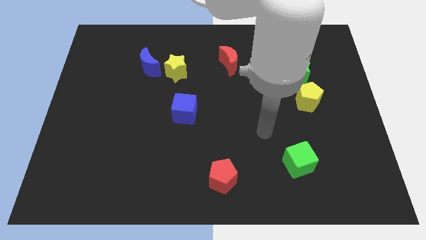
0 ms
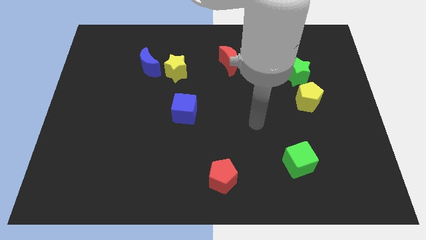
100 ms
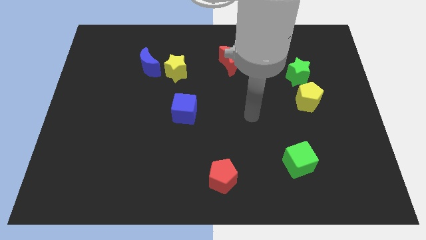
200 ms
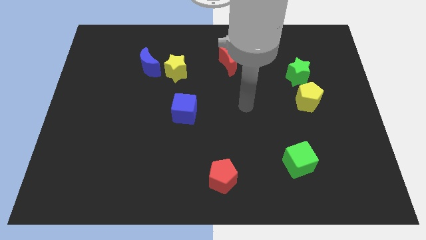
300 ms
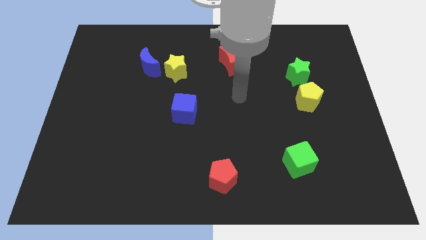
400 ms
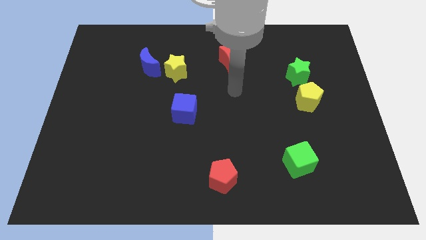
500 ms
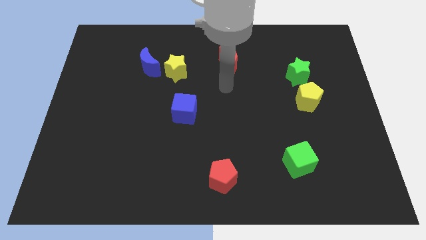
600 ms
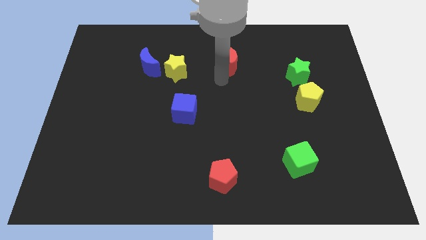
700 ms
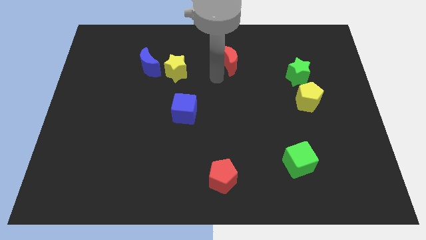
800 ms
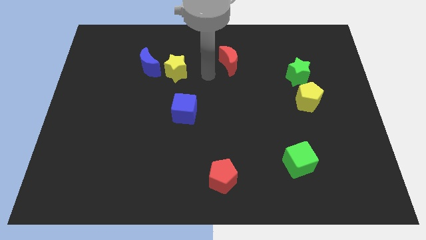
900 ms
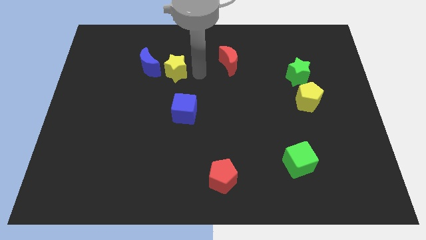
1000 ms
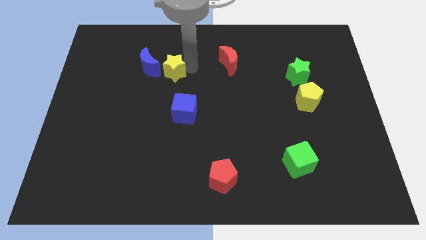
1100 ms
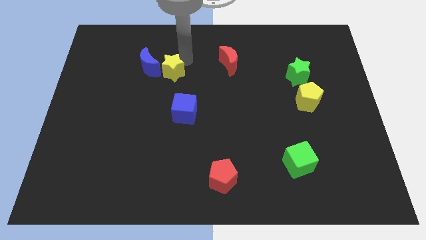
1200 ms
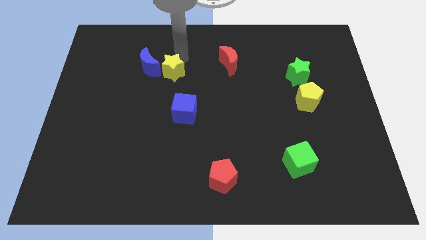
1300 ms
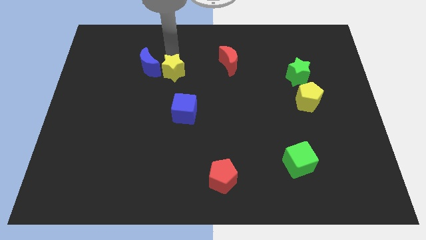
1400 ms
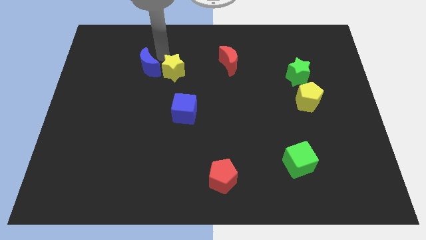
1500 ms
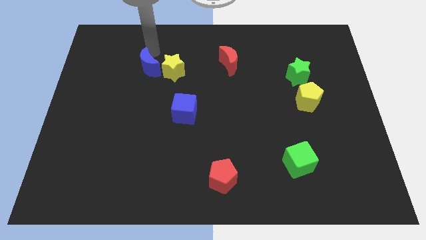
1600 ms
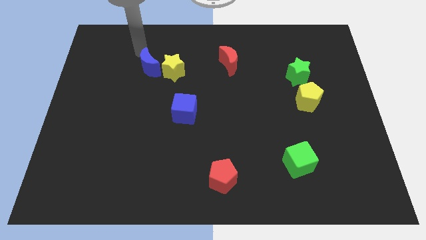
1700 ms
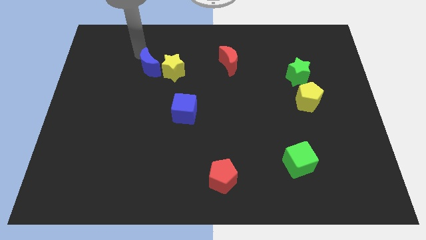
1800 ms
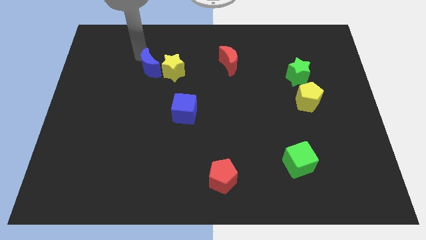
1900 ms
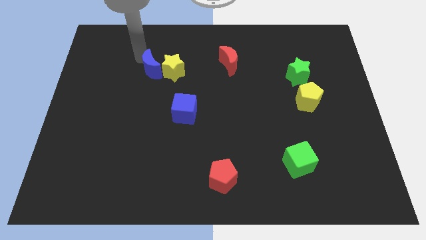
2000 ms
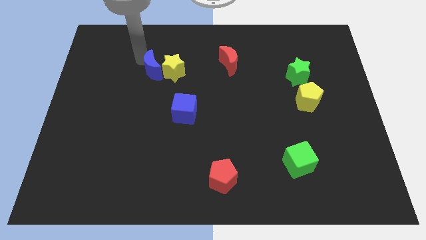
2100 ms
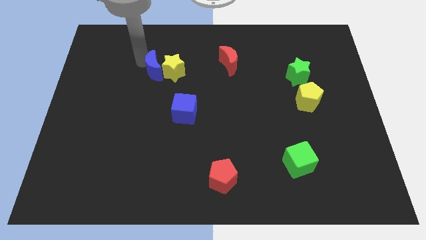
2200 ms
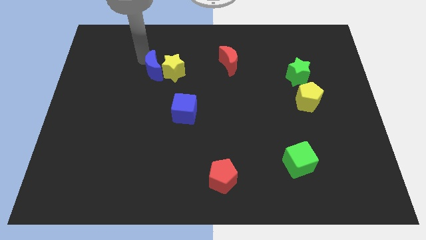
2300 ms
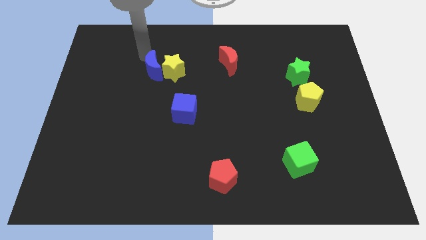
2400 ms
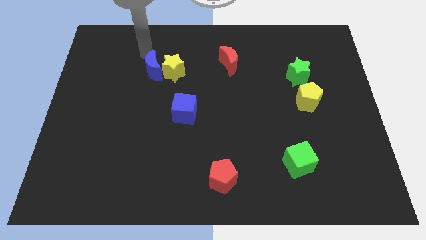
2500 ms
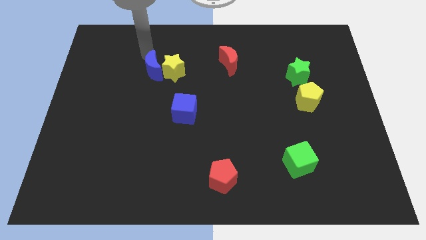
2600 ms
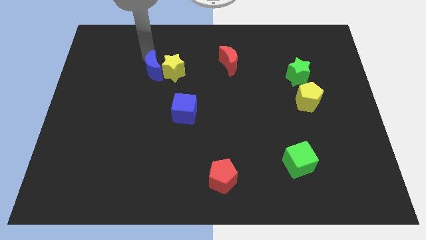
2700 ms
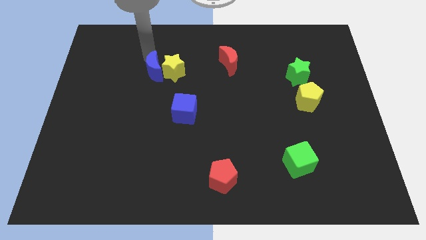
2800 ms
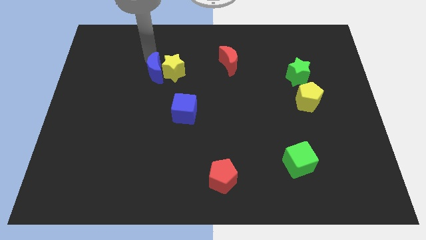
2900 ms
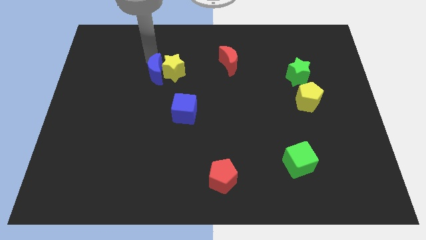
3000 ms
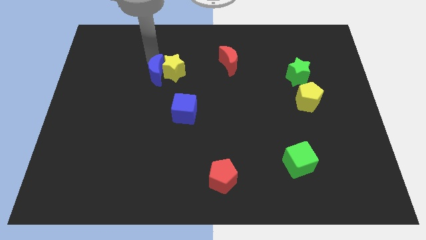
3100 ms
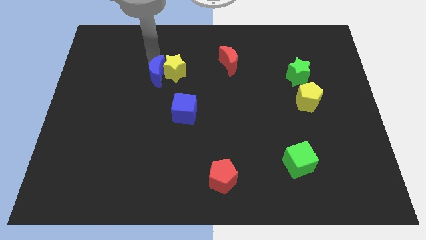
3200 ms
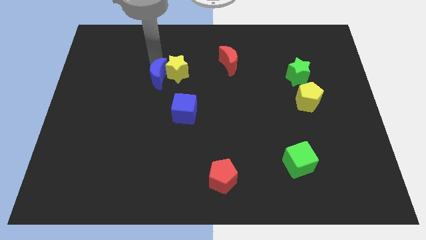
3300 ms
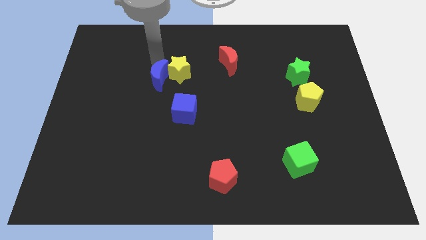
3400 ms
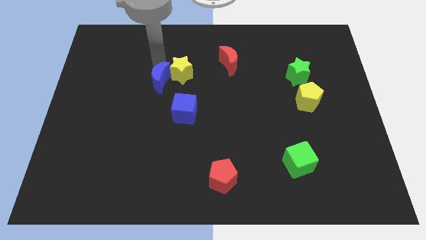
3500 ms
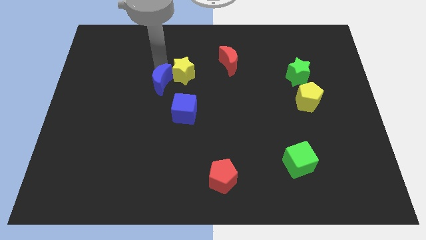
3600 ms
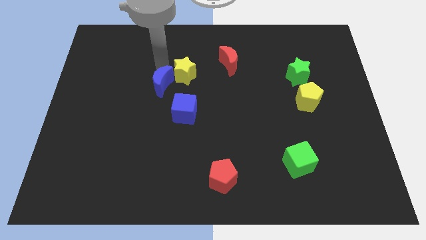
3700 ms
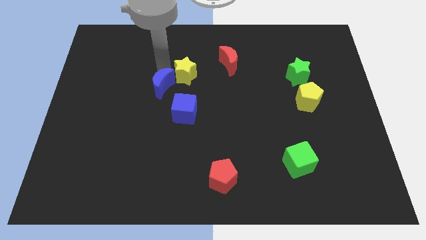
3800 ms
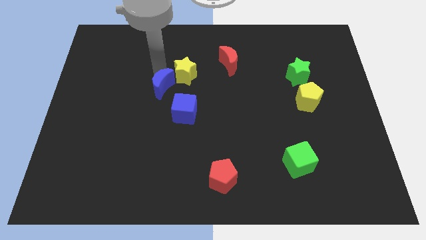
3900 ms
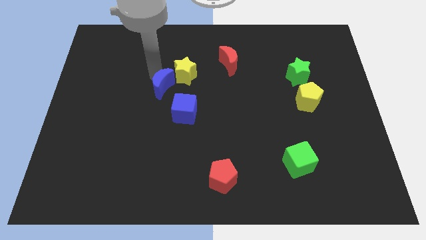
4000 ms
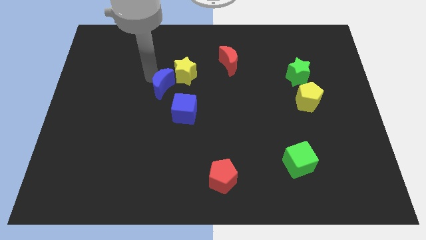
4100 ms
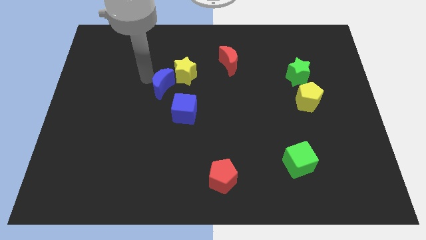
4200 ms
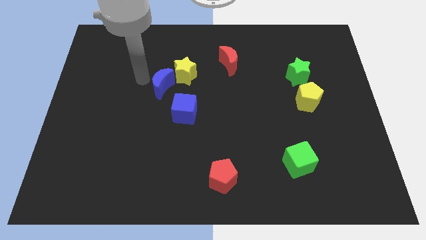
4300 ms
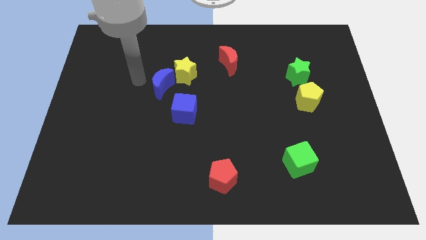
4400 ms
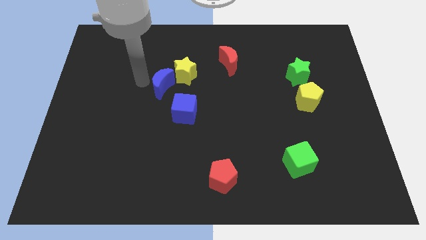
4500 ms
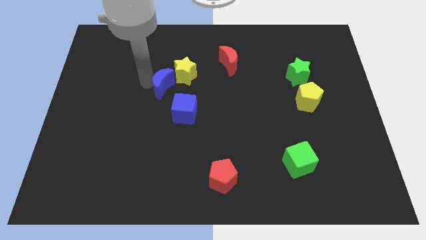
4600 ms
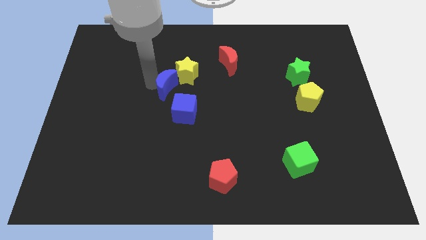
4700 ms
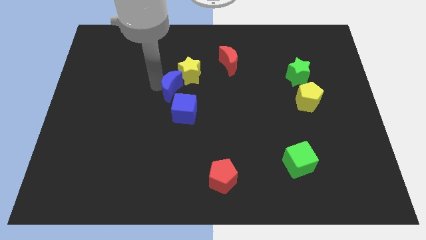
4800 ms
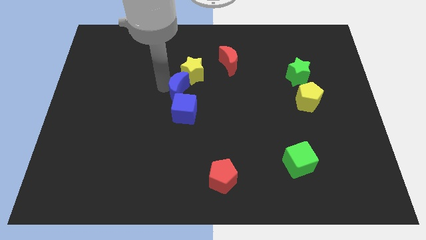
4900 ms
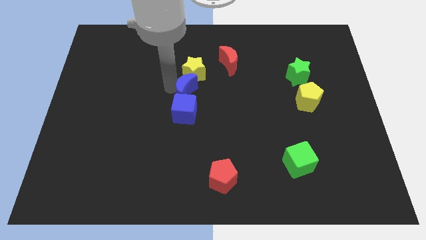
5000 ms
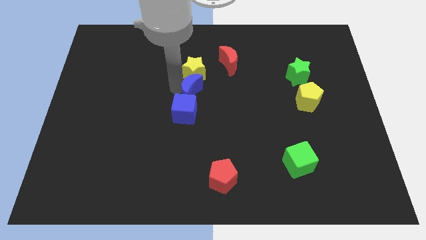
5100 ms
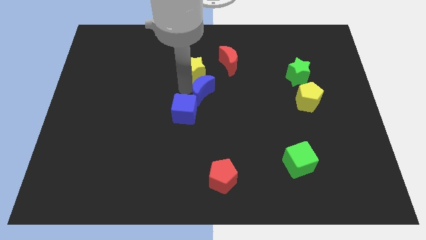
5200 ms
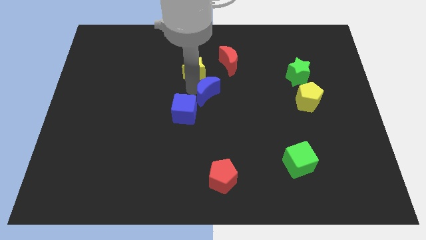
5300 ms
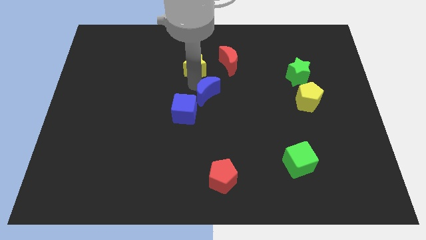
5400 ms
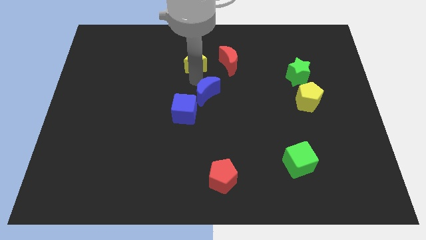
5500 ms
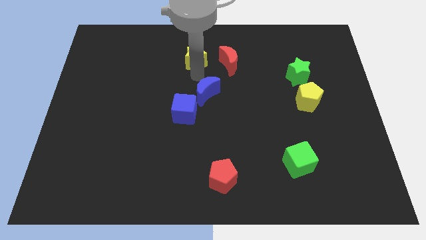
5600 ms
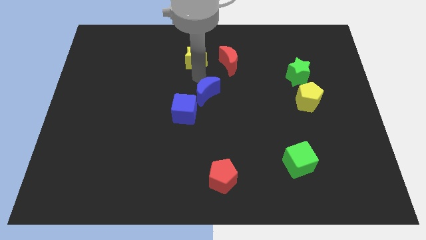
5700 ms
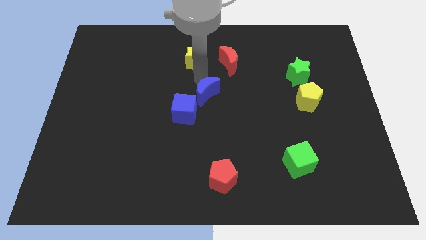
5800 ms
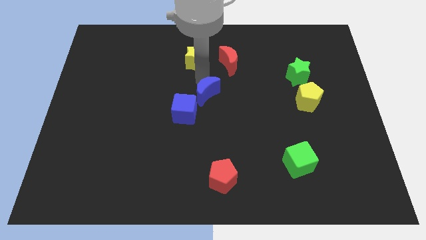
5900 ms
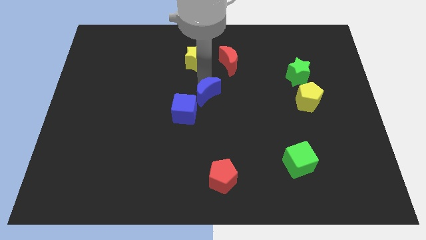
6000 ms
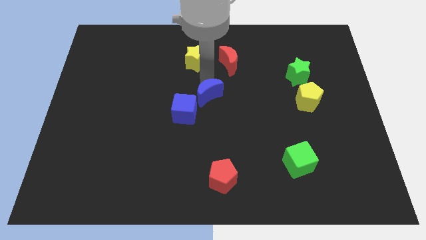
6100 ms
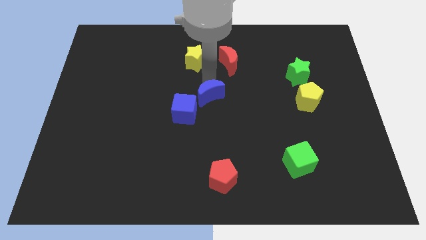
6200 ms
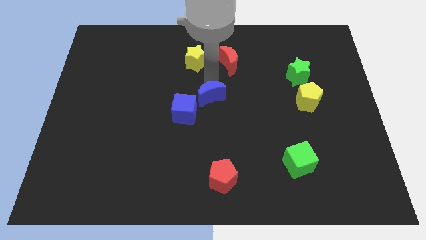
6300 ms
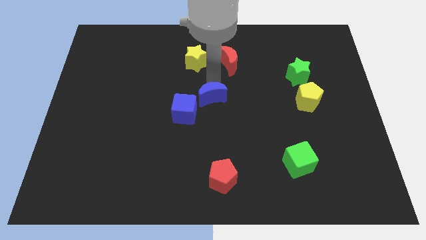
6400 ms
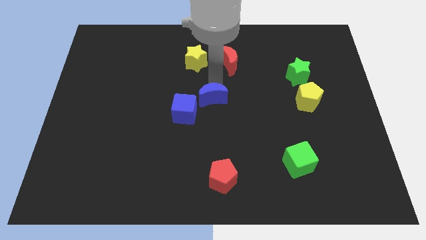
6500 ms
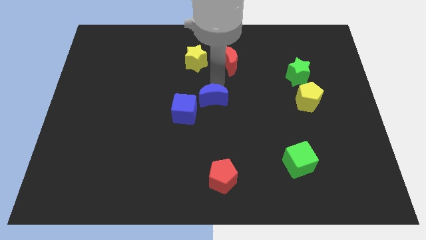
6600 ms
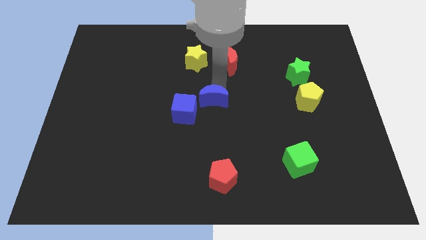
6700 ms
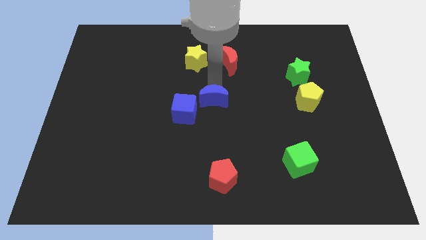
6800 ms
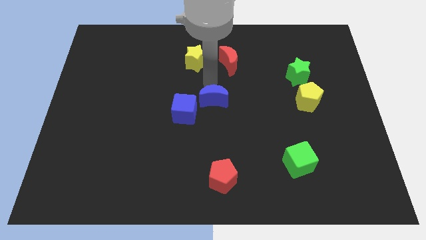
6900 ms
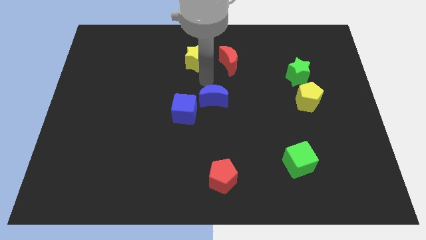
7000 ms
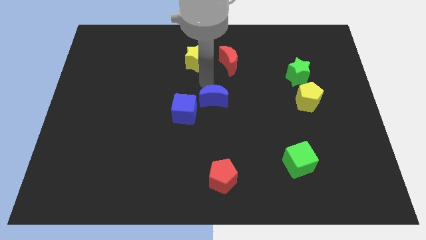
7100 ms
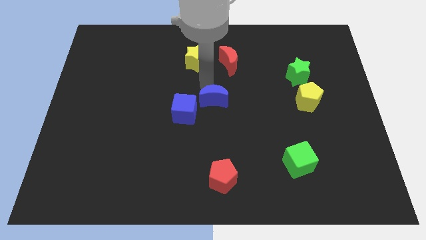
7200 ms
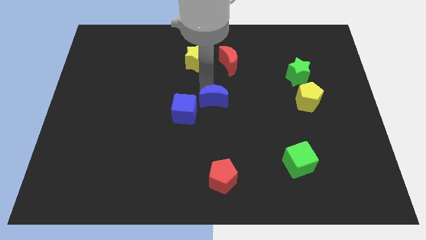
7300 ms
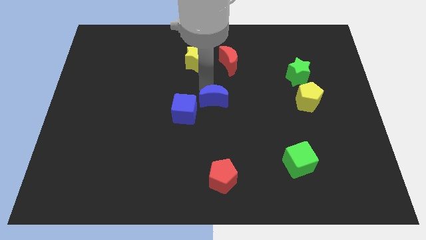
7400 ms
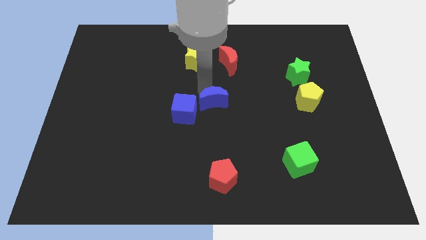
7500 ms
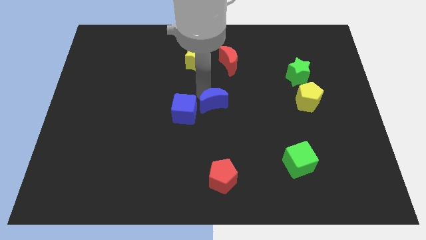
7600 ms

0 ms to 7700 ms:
move the blue moon downwards and then right

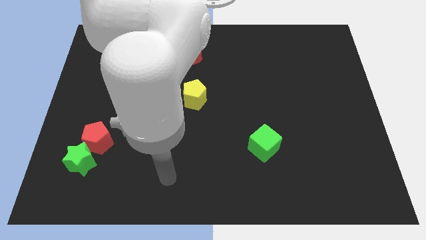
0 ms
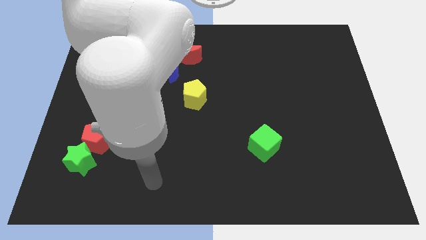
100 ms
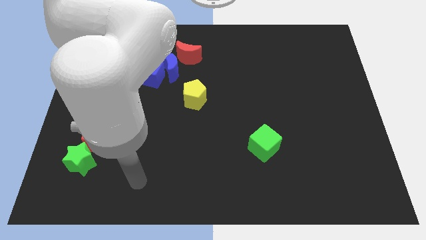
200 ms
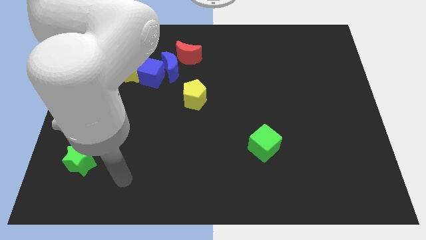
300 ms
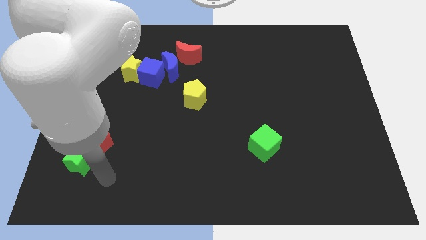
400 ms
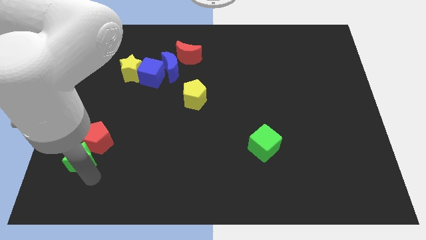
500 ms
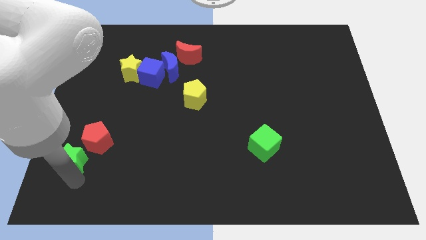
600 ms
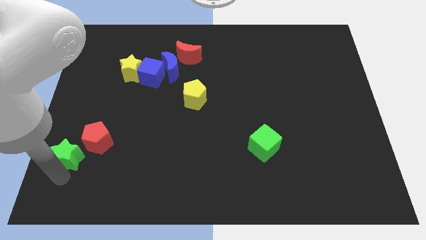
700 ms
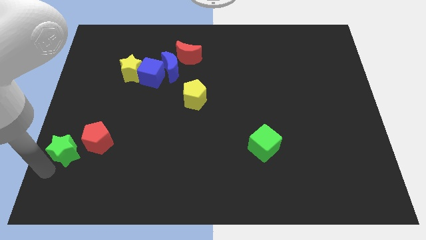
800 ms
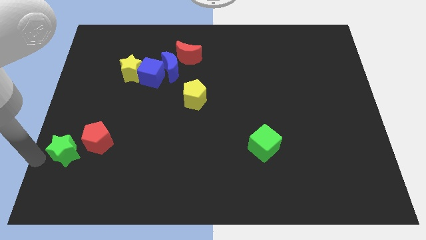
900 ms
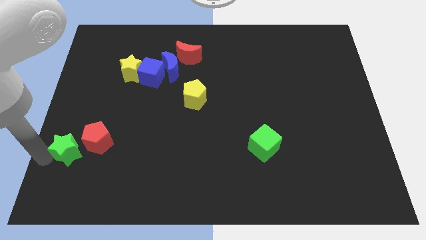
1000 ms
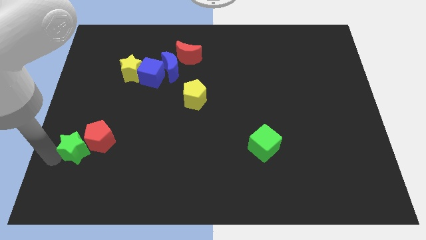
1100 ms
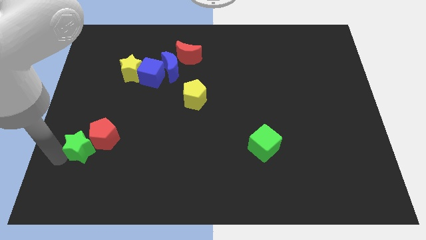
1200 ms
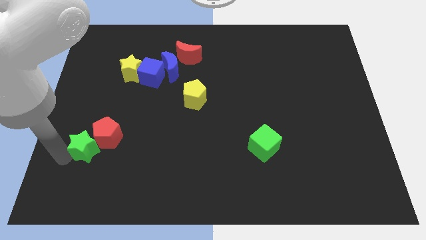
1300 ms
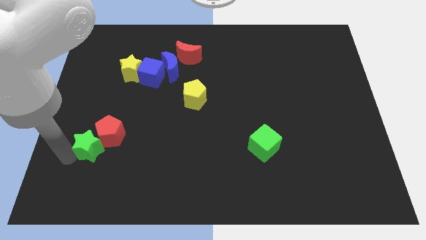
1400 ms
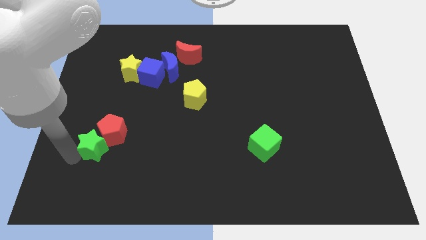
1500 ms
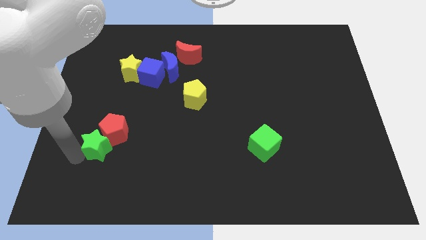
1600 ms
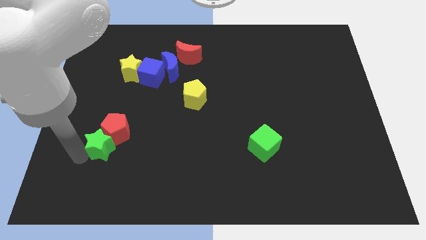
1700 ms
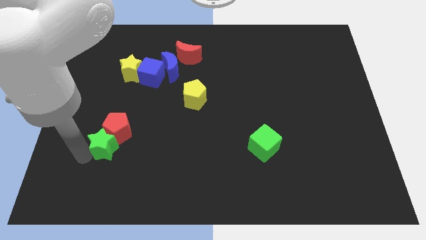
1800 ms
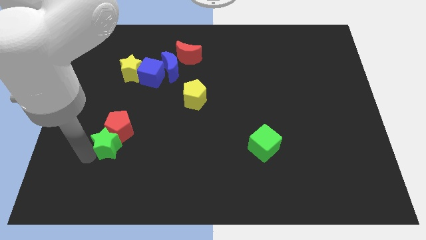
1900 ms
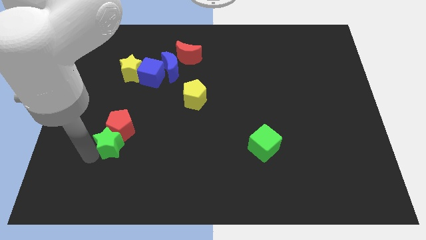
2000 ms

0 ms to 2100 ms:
slightly push the green star diagonally up and to the right
